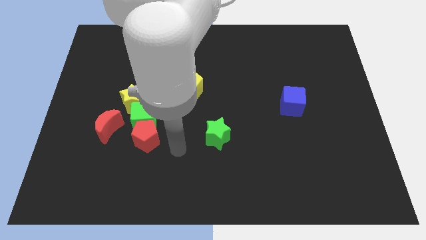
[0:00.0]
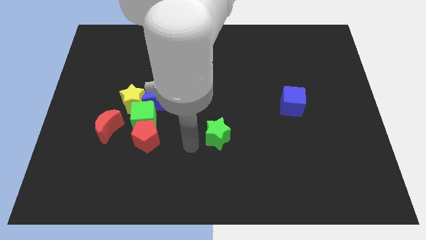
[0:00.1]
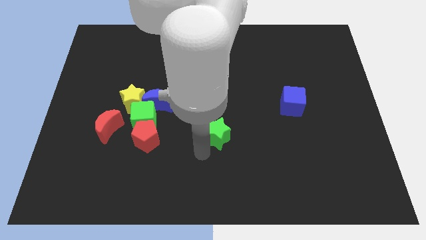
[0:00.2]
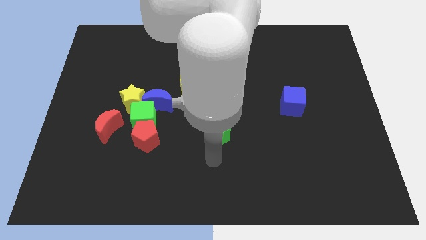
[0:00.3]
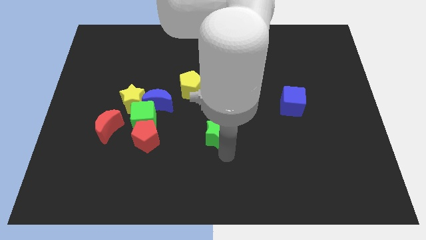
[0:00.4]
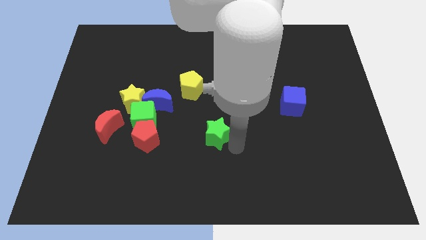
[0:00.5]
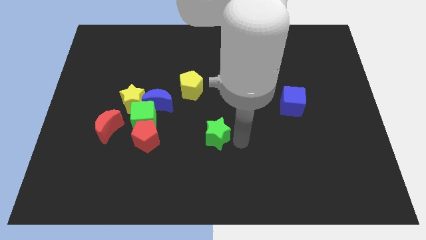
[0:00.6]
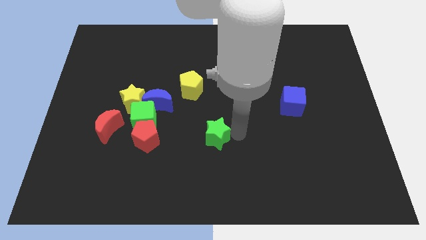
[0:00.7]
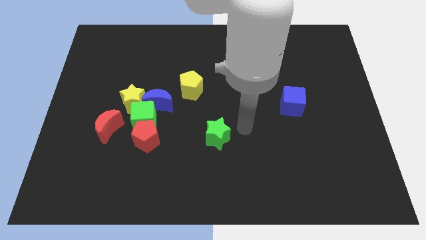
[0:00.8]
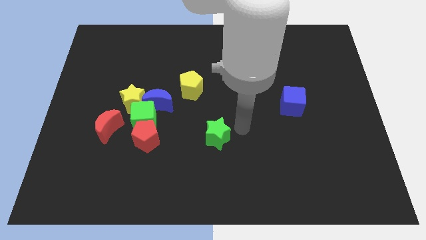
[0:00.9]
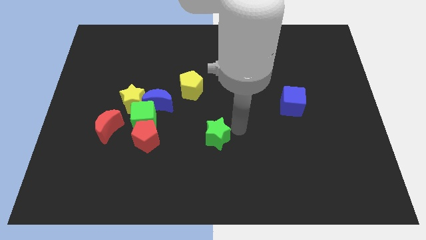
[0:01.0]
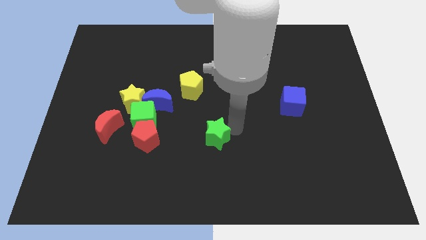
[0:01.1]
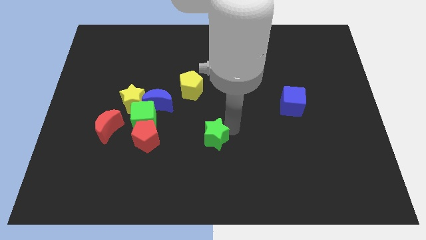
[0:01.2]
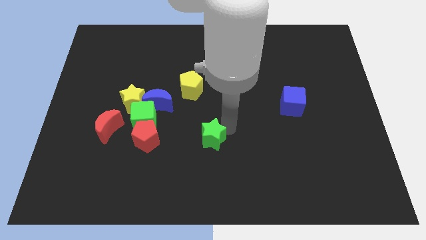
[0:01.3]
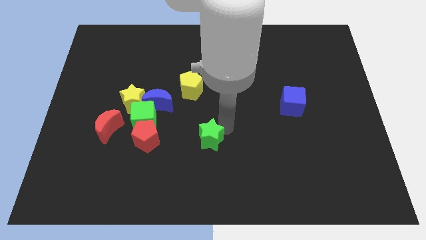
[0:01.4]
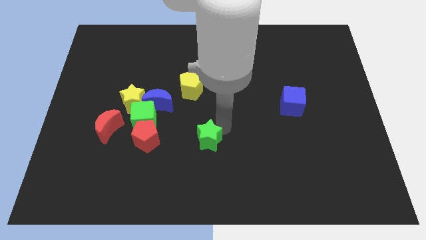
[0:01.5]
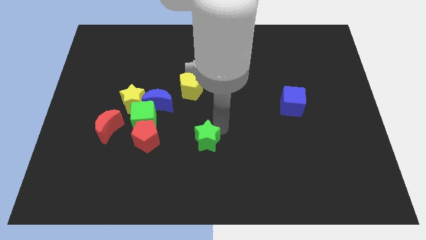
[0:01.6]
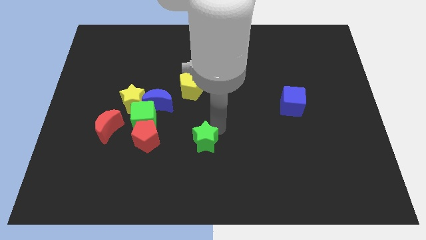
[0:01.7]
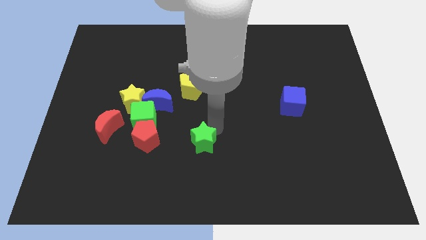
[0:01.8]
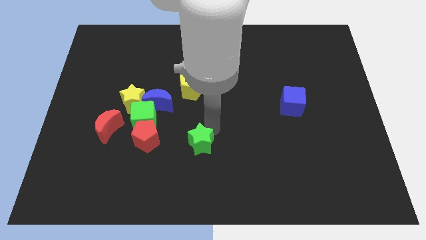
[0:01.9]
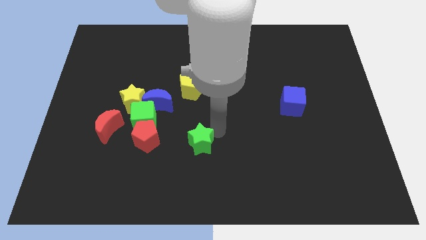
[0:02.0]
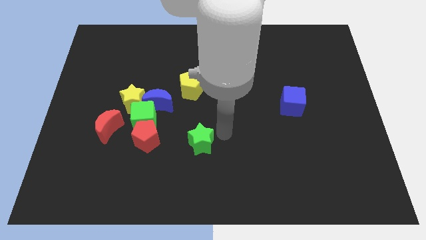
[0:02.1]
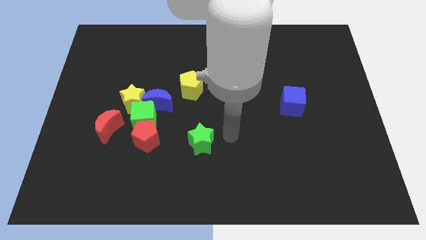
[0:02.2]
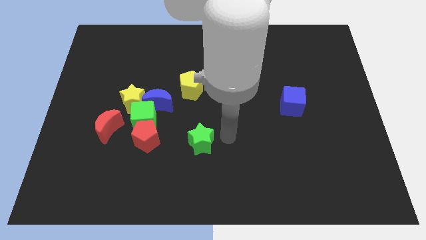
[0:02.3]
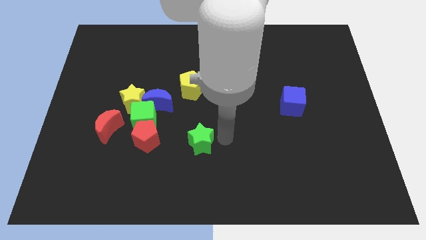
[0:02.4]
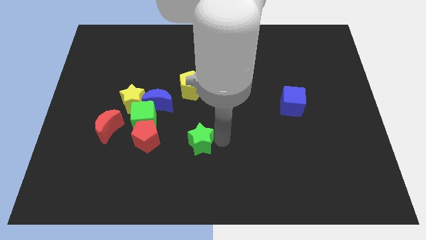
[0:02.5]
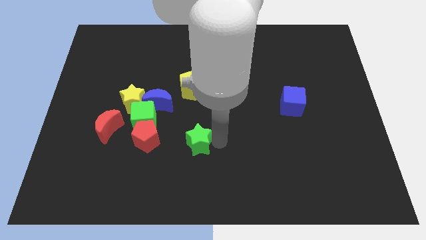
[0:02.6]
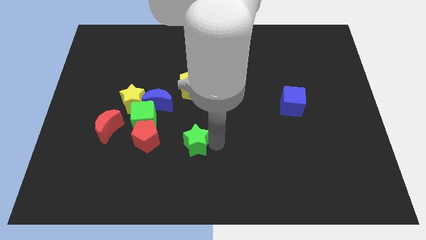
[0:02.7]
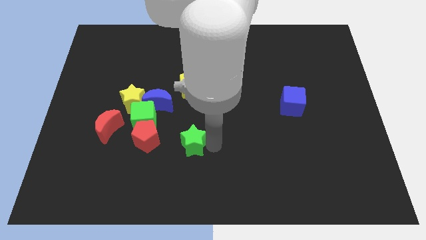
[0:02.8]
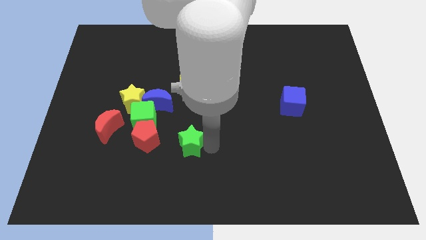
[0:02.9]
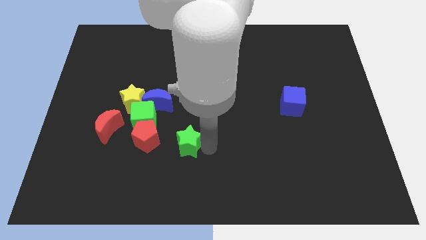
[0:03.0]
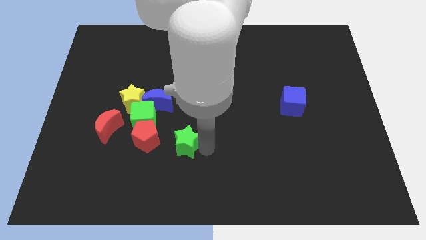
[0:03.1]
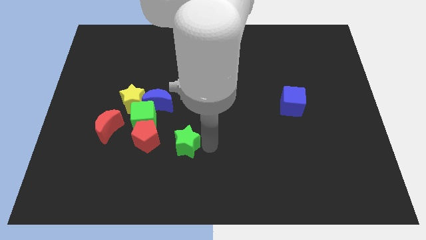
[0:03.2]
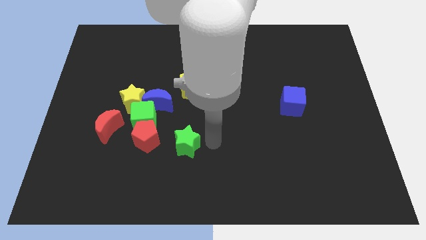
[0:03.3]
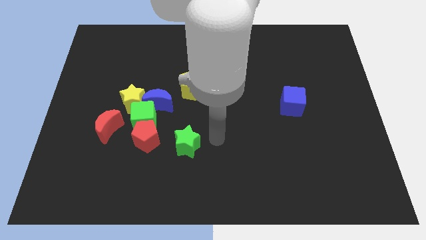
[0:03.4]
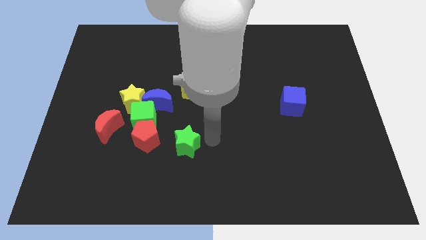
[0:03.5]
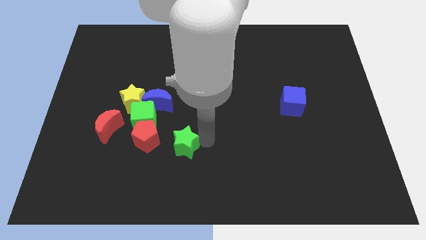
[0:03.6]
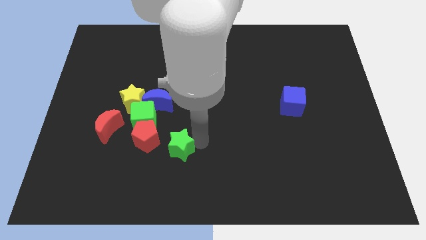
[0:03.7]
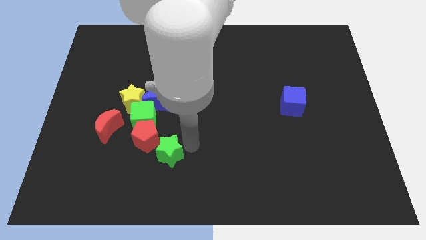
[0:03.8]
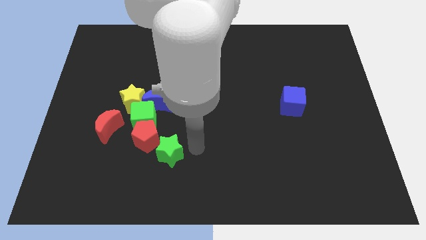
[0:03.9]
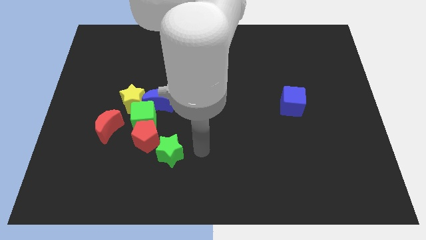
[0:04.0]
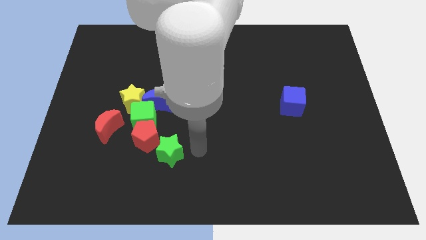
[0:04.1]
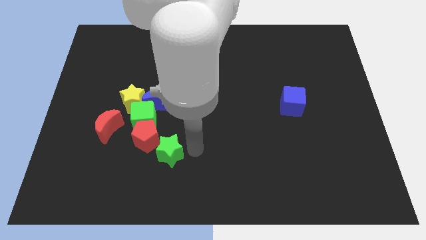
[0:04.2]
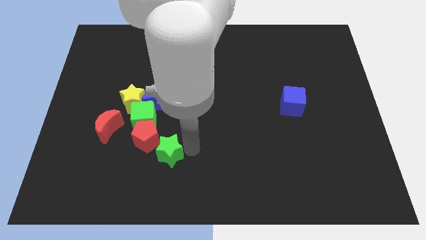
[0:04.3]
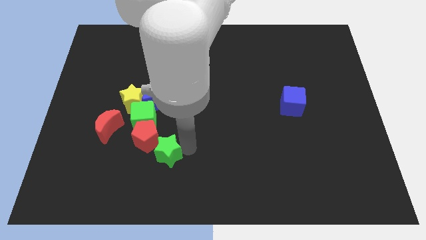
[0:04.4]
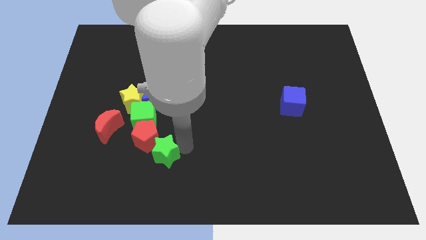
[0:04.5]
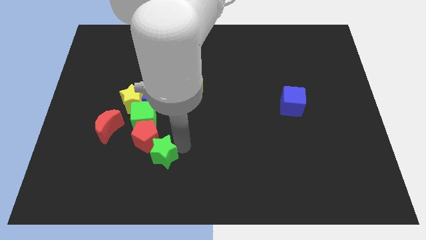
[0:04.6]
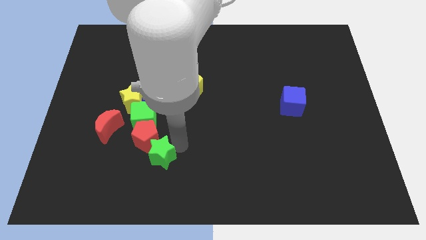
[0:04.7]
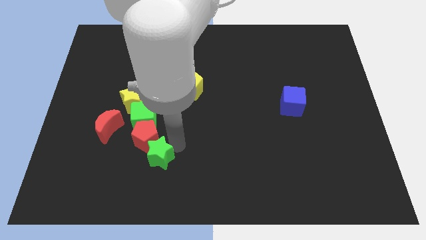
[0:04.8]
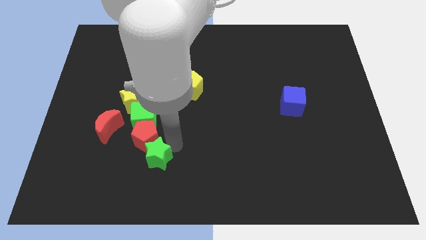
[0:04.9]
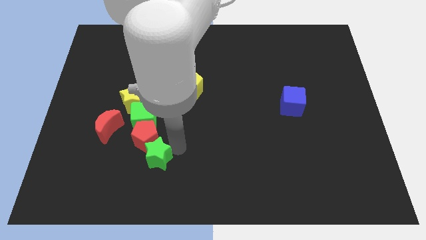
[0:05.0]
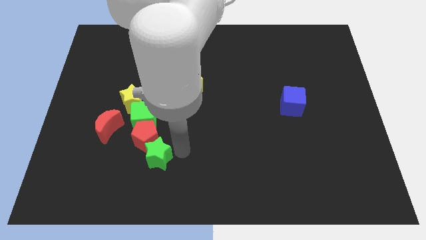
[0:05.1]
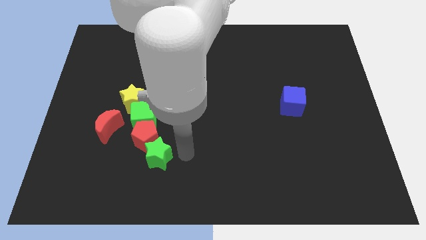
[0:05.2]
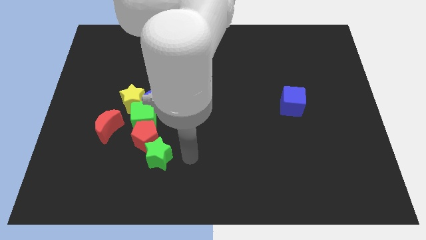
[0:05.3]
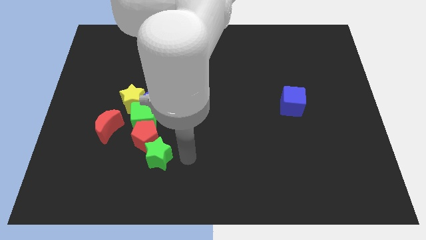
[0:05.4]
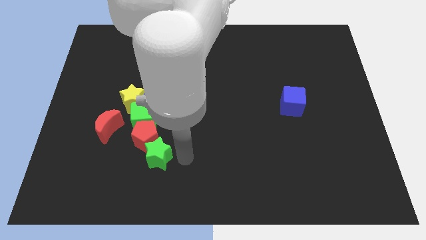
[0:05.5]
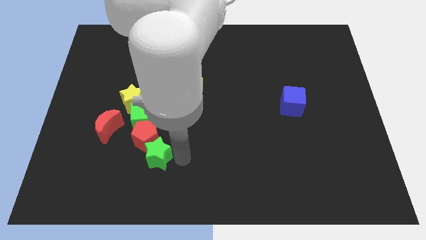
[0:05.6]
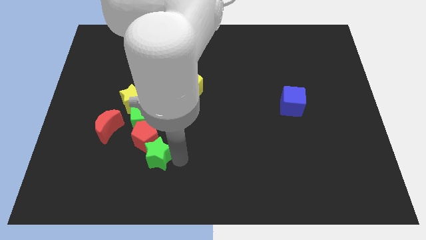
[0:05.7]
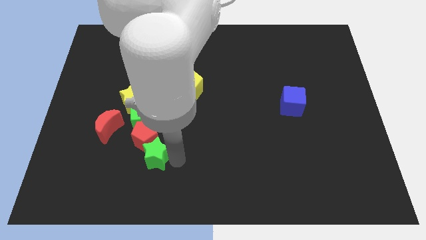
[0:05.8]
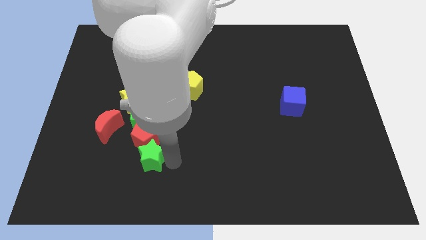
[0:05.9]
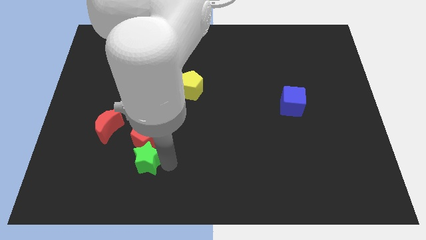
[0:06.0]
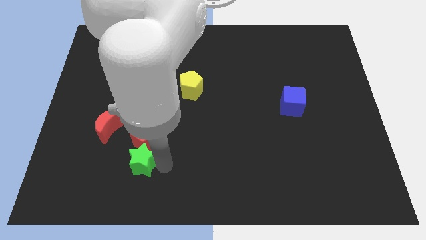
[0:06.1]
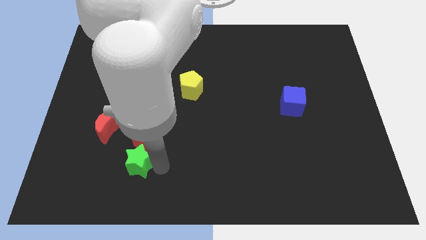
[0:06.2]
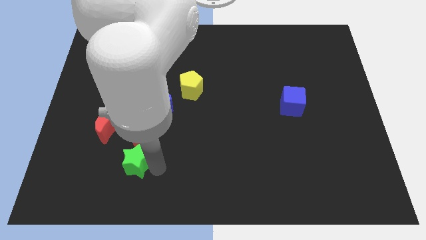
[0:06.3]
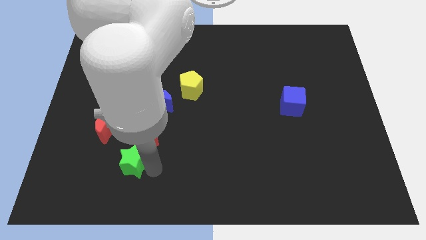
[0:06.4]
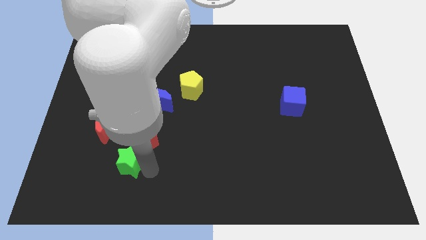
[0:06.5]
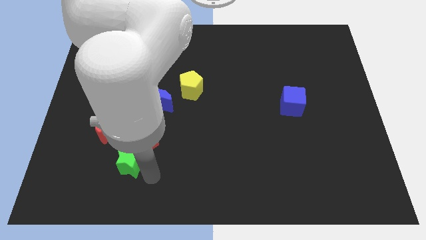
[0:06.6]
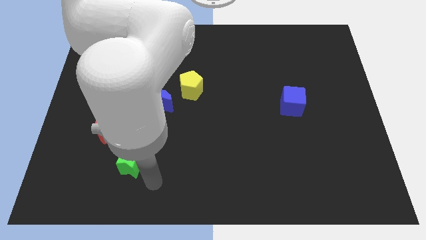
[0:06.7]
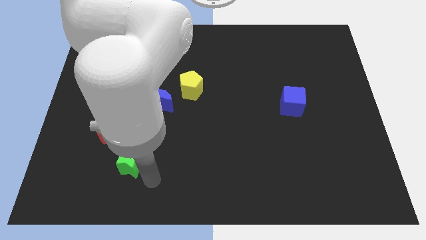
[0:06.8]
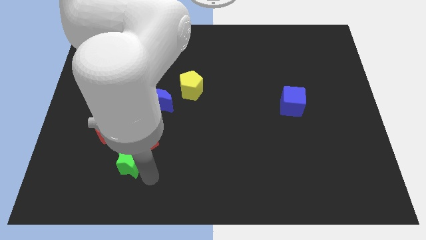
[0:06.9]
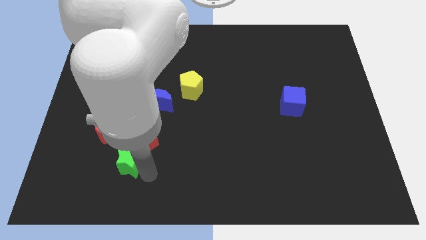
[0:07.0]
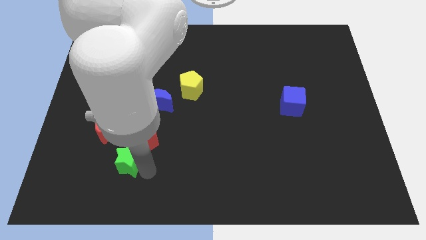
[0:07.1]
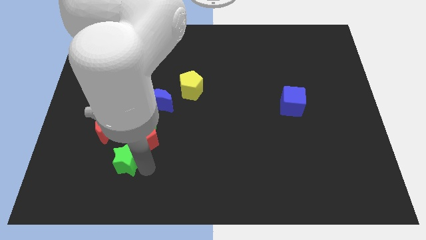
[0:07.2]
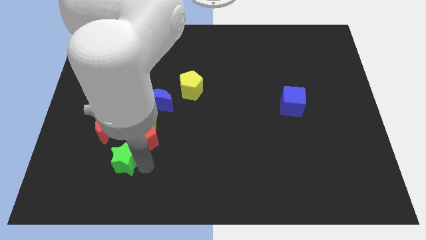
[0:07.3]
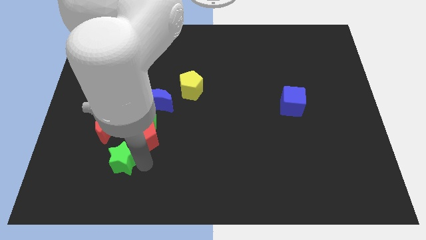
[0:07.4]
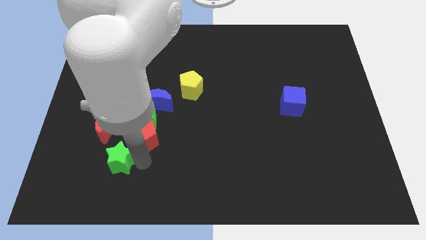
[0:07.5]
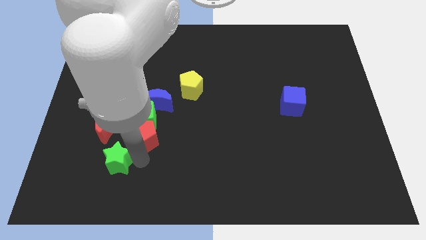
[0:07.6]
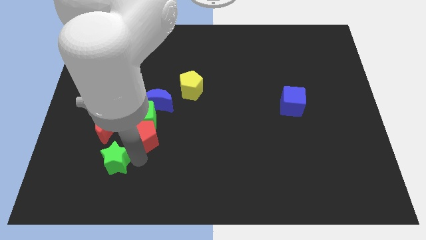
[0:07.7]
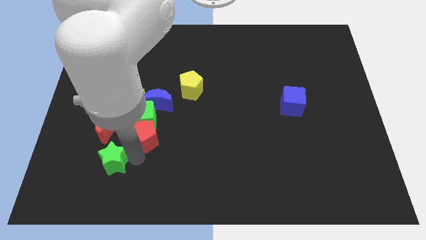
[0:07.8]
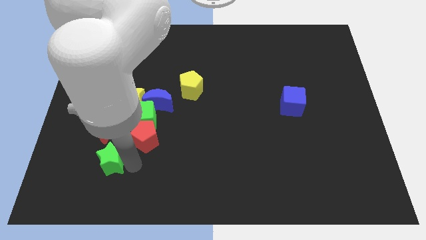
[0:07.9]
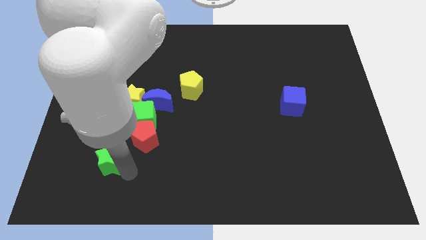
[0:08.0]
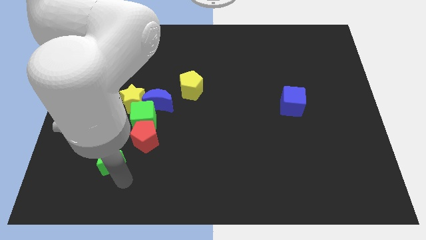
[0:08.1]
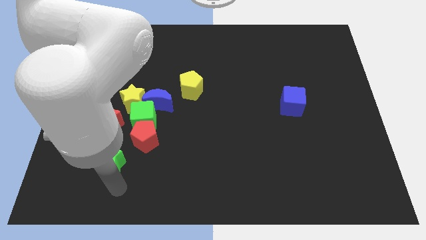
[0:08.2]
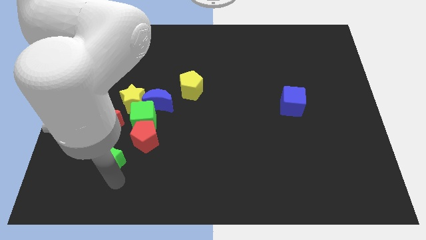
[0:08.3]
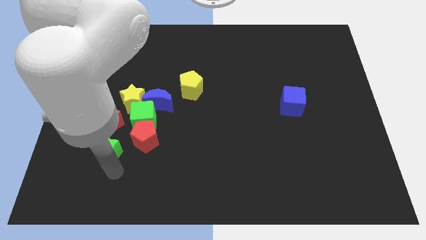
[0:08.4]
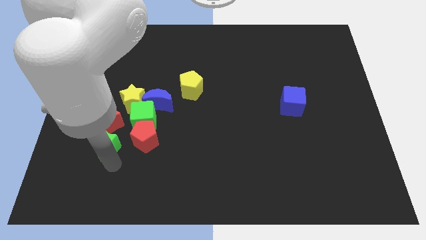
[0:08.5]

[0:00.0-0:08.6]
push the green star close to the red moon
